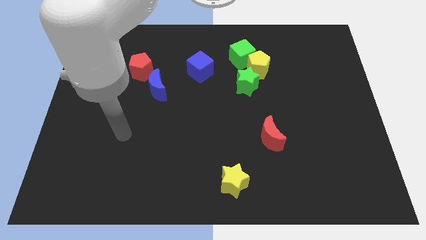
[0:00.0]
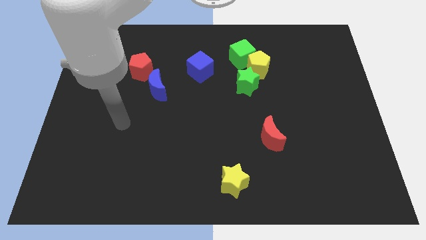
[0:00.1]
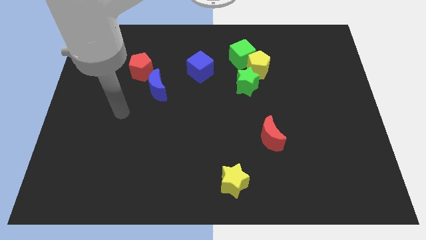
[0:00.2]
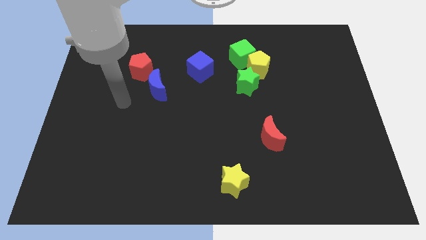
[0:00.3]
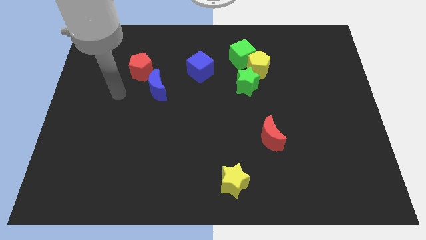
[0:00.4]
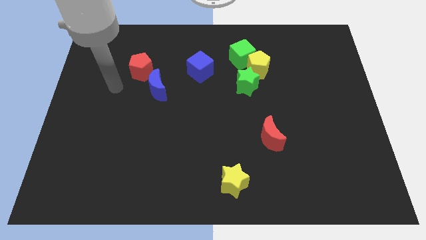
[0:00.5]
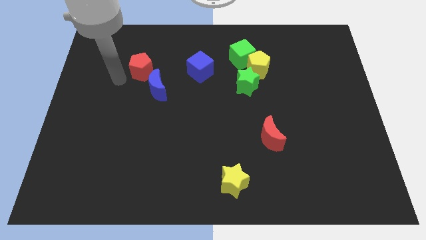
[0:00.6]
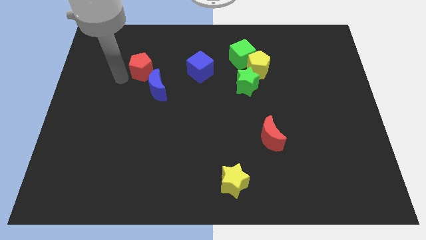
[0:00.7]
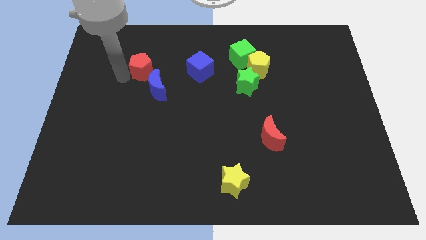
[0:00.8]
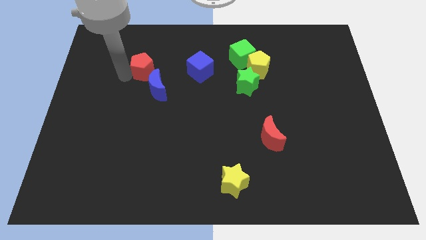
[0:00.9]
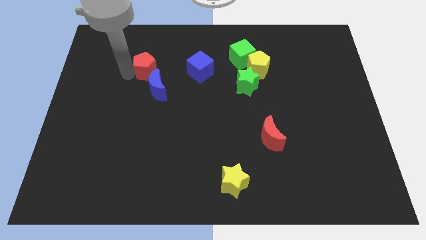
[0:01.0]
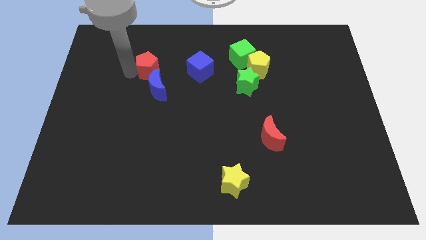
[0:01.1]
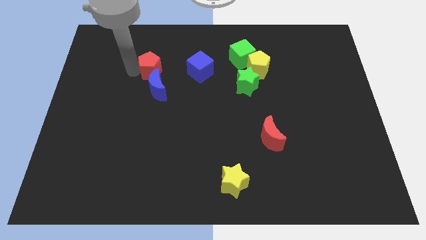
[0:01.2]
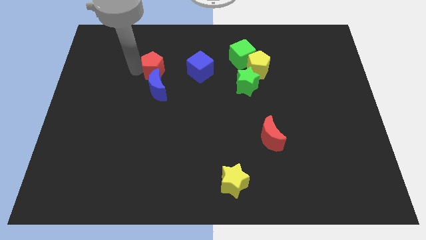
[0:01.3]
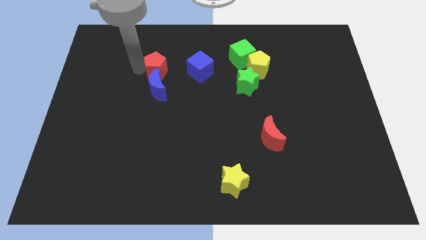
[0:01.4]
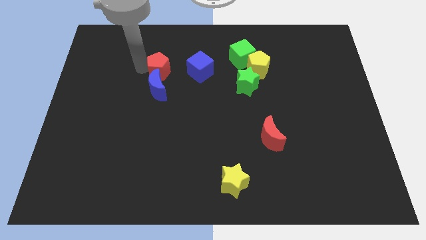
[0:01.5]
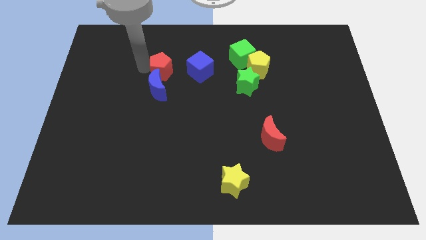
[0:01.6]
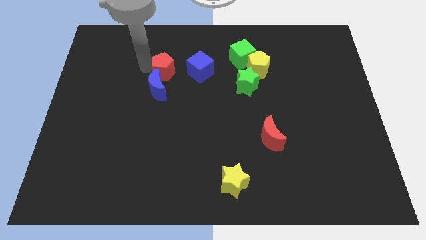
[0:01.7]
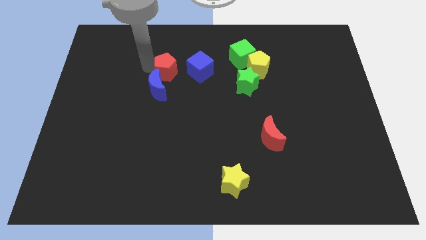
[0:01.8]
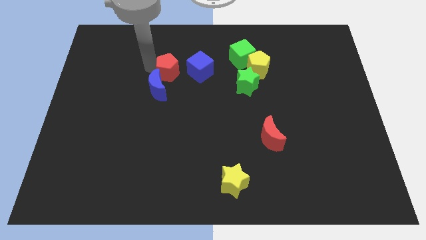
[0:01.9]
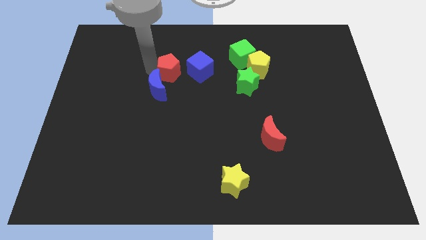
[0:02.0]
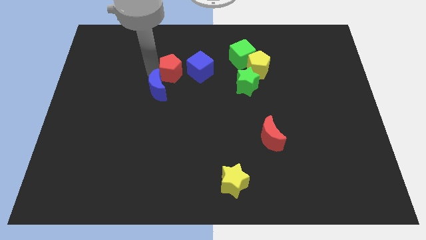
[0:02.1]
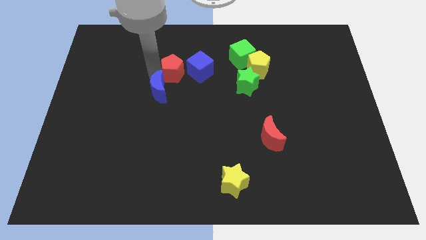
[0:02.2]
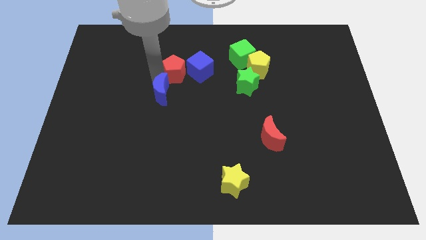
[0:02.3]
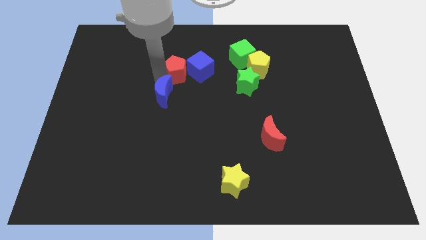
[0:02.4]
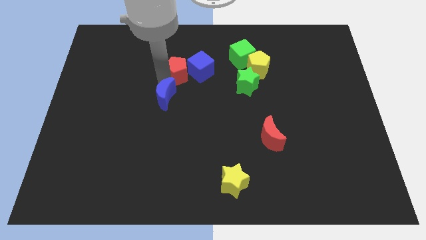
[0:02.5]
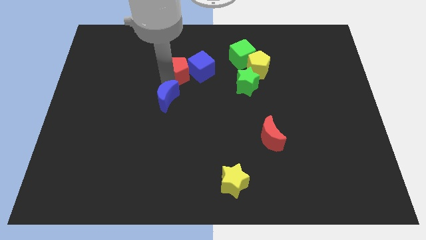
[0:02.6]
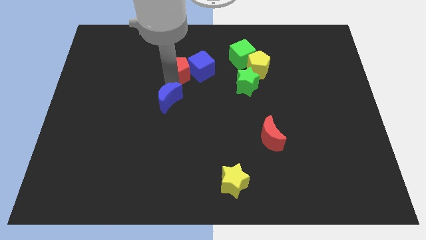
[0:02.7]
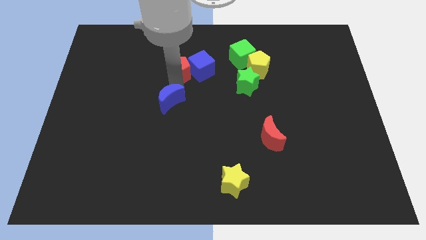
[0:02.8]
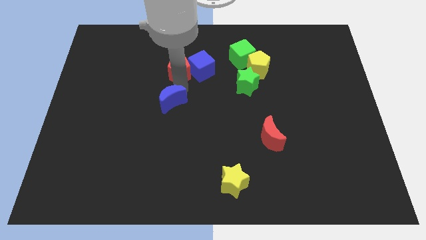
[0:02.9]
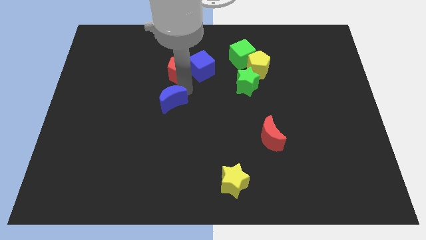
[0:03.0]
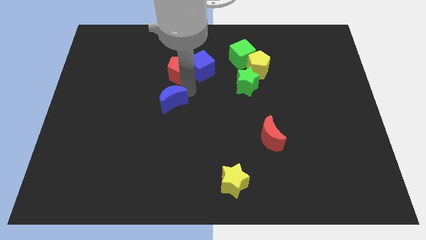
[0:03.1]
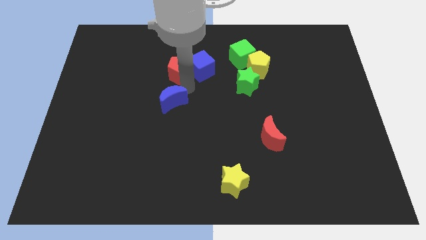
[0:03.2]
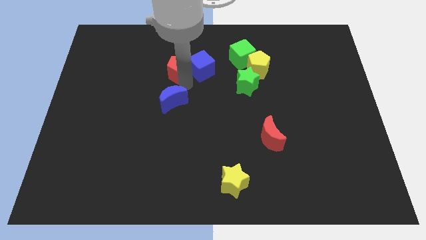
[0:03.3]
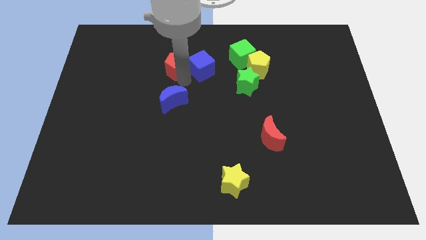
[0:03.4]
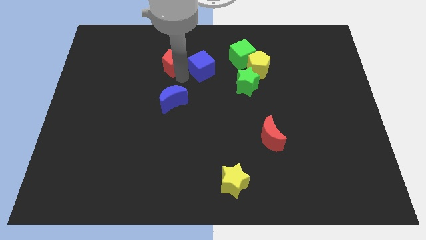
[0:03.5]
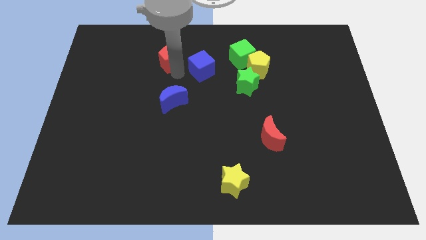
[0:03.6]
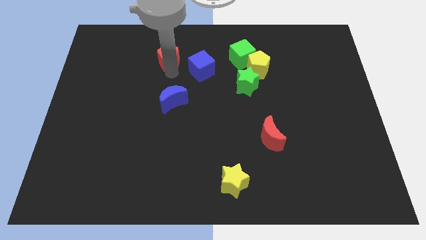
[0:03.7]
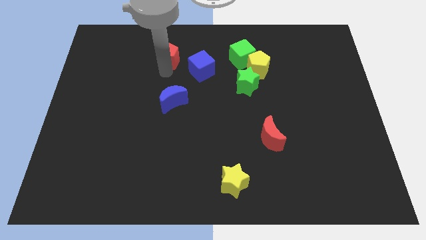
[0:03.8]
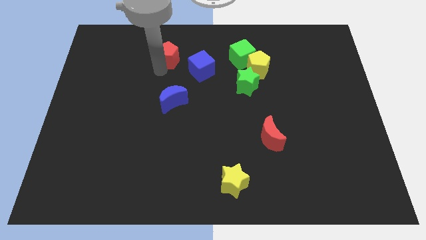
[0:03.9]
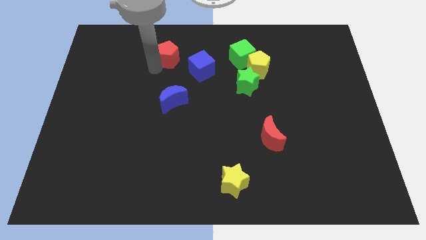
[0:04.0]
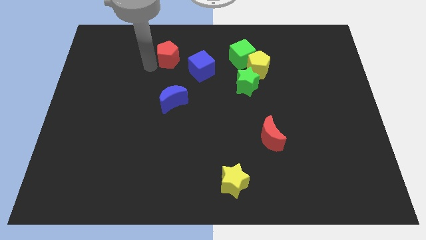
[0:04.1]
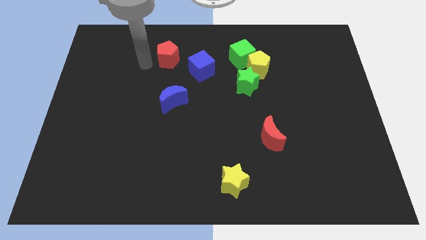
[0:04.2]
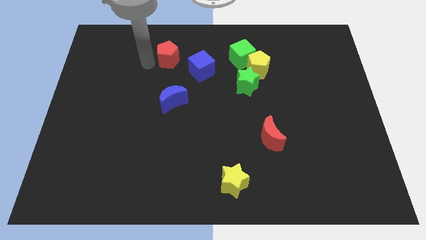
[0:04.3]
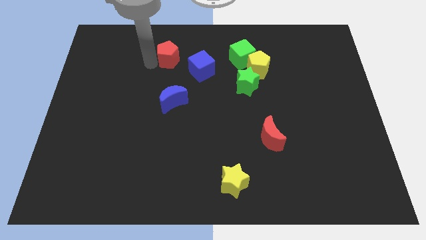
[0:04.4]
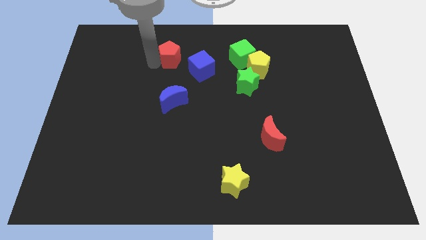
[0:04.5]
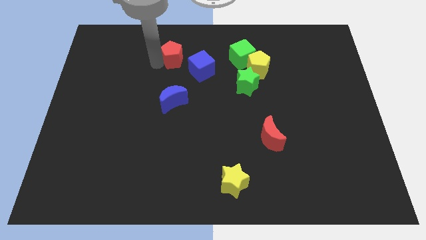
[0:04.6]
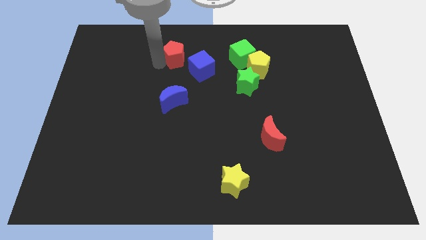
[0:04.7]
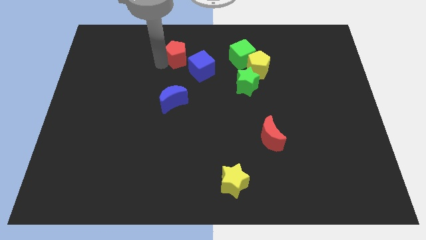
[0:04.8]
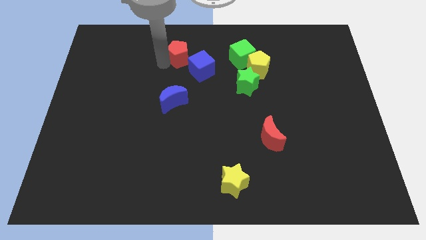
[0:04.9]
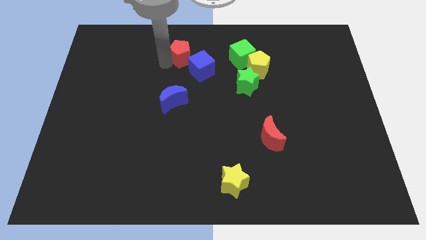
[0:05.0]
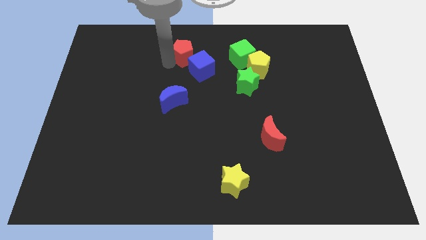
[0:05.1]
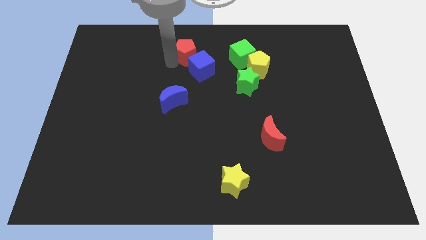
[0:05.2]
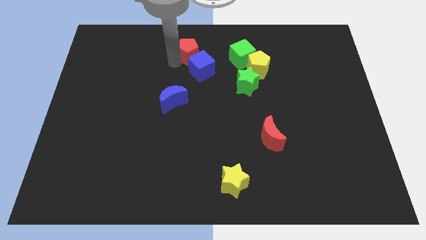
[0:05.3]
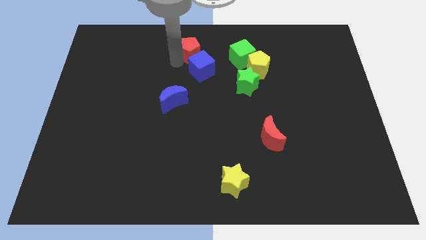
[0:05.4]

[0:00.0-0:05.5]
push the red pentagon to the top

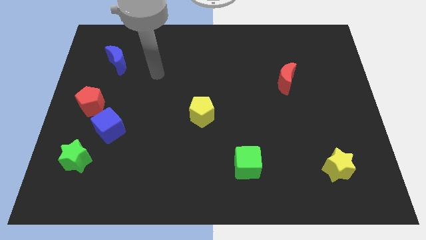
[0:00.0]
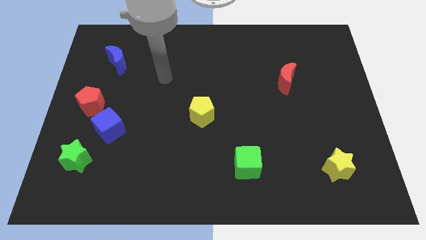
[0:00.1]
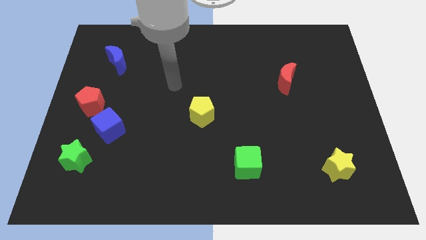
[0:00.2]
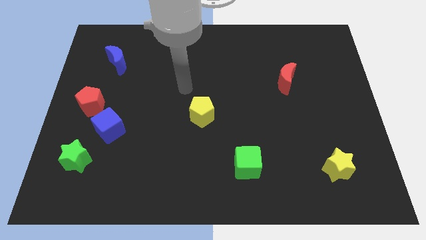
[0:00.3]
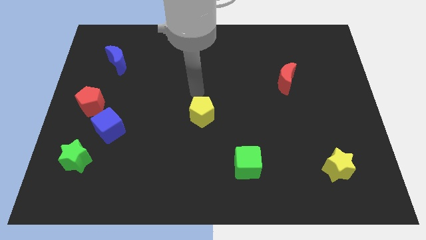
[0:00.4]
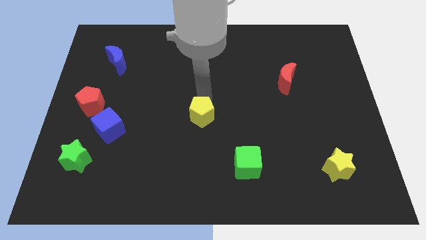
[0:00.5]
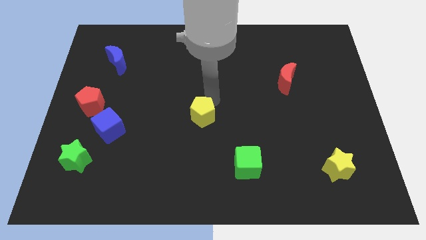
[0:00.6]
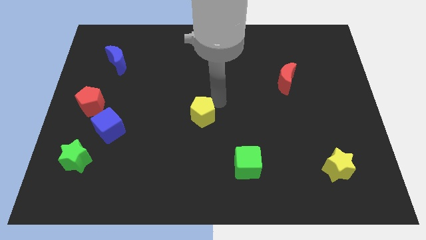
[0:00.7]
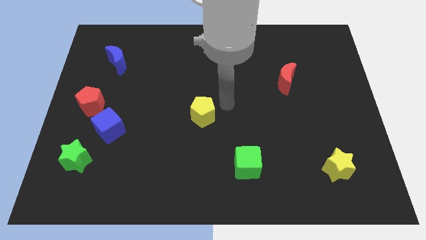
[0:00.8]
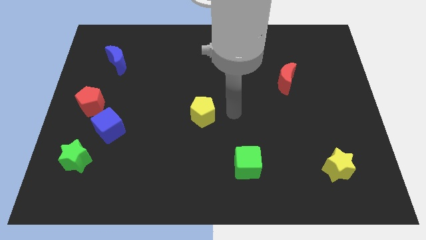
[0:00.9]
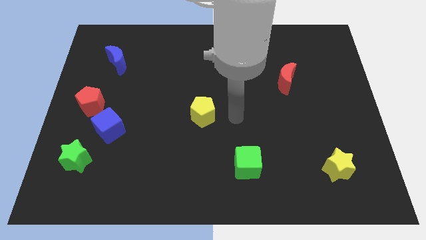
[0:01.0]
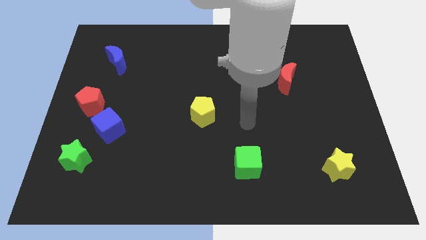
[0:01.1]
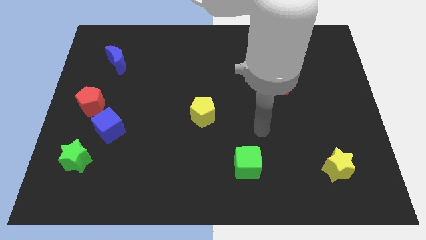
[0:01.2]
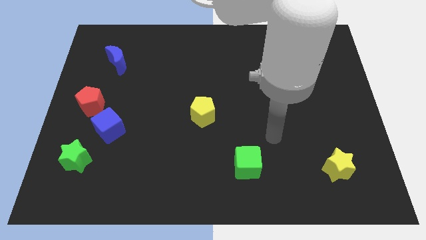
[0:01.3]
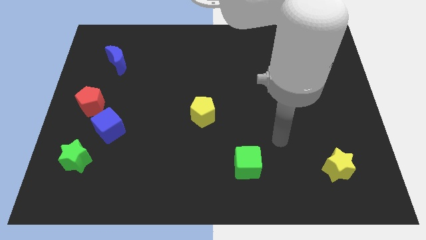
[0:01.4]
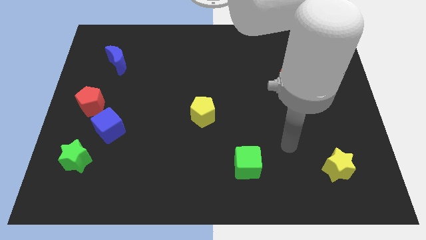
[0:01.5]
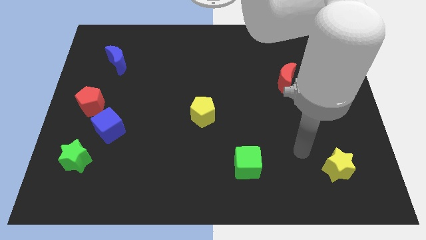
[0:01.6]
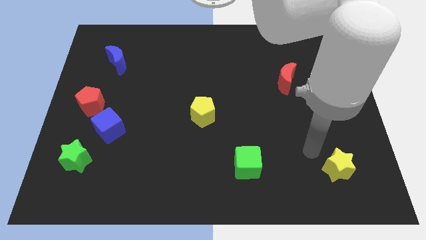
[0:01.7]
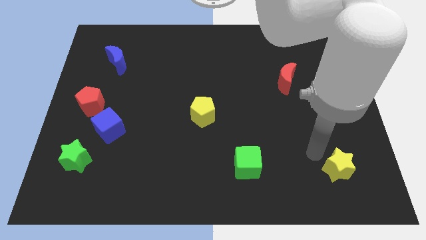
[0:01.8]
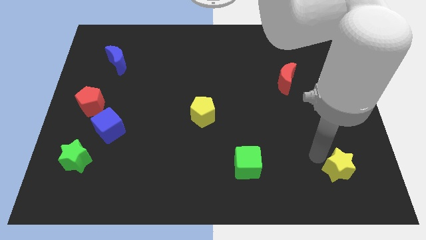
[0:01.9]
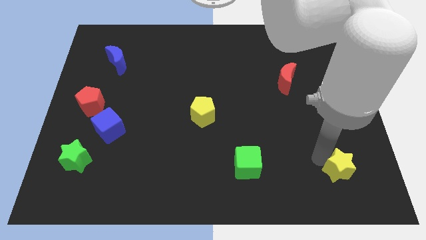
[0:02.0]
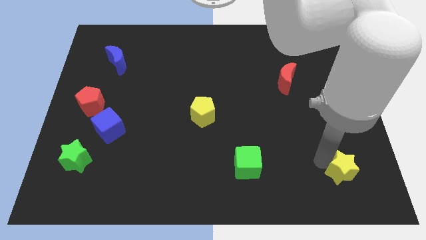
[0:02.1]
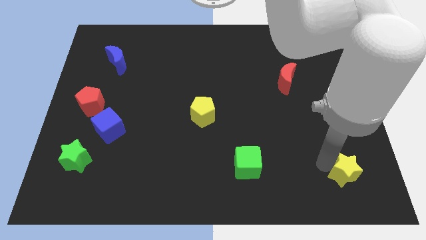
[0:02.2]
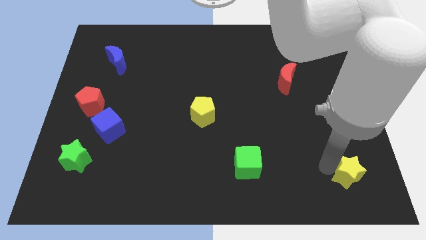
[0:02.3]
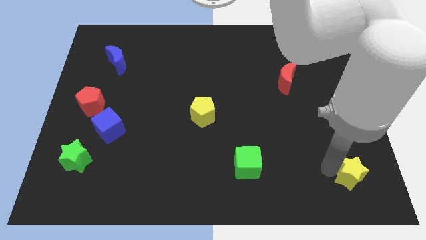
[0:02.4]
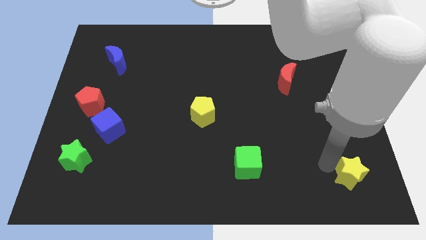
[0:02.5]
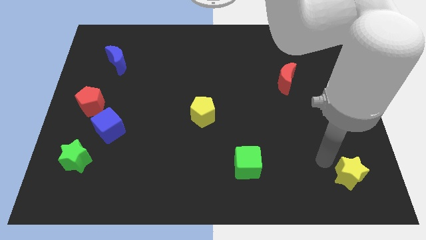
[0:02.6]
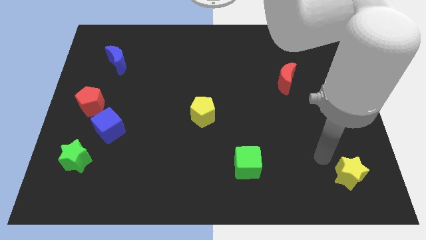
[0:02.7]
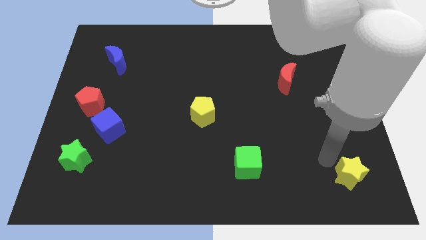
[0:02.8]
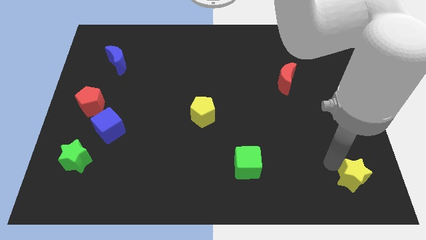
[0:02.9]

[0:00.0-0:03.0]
slide the yellow star to the bottom right
